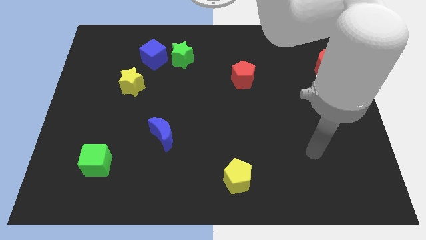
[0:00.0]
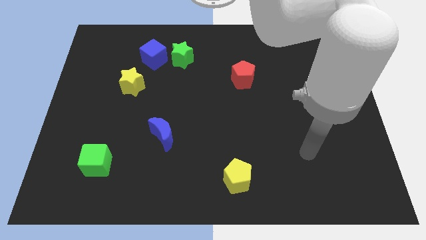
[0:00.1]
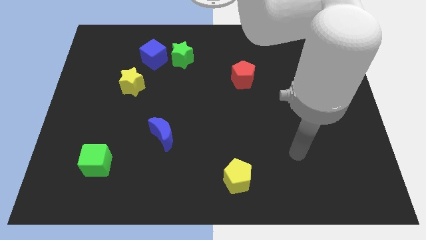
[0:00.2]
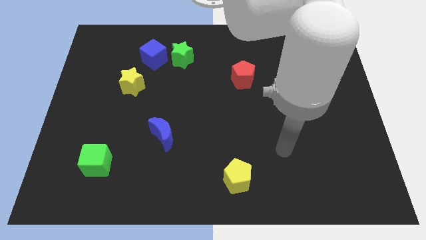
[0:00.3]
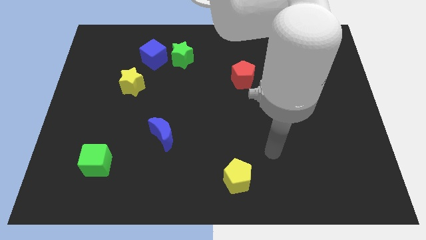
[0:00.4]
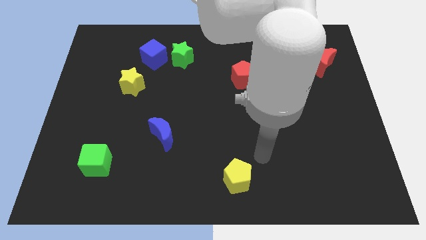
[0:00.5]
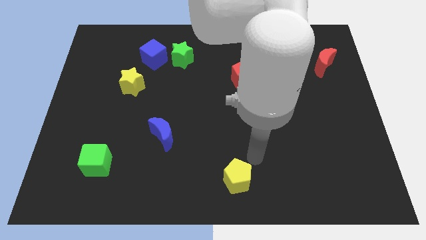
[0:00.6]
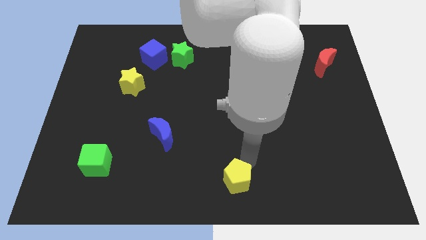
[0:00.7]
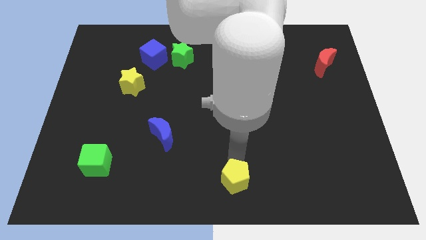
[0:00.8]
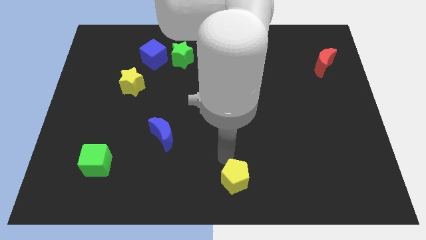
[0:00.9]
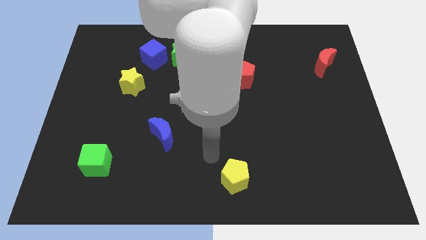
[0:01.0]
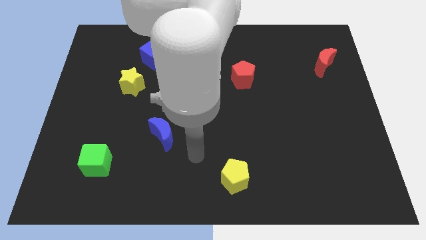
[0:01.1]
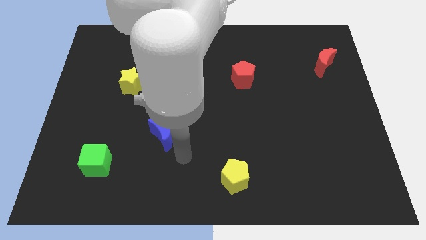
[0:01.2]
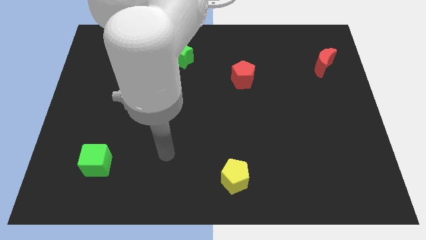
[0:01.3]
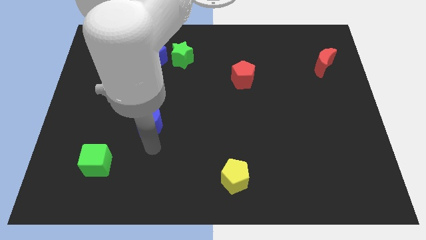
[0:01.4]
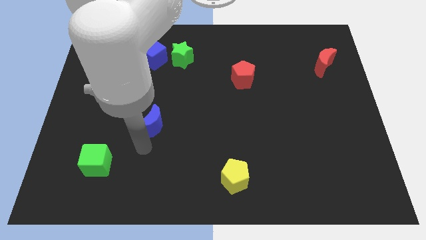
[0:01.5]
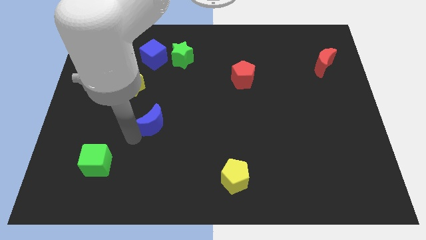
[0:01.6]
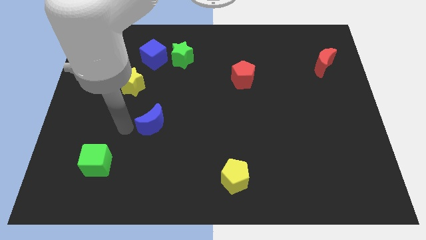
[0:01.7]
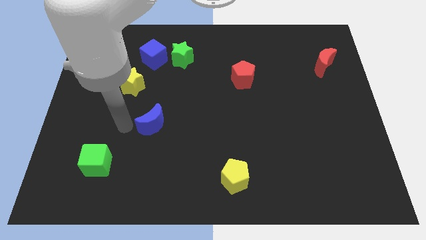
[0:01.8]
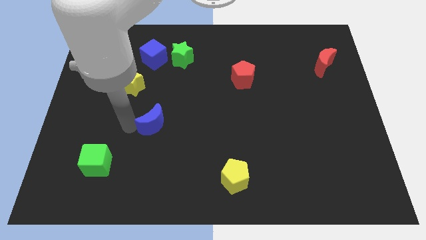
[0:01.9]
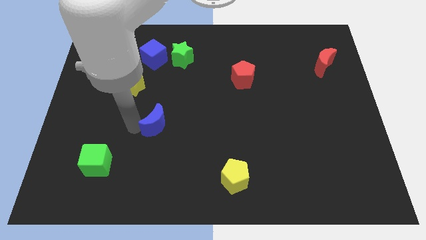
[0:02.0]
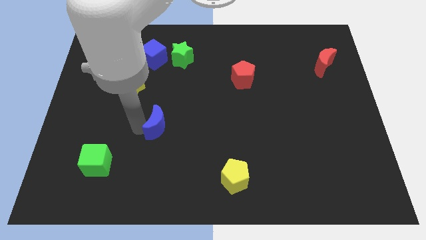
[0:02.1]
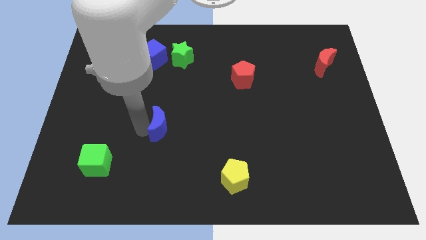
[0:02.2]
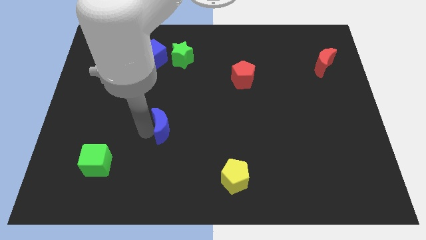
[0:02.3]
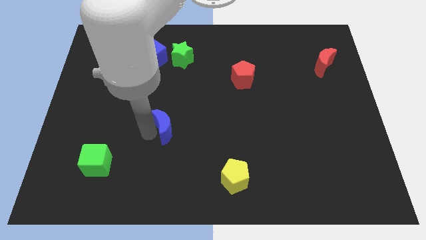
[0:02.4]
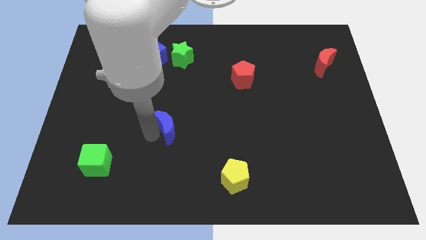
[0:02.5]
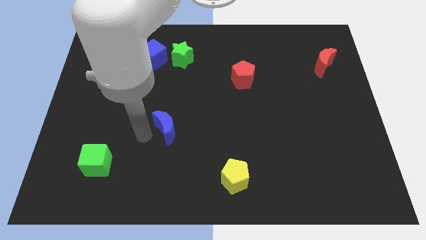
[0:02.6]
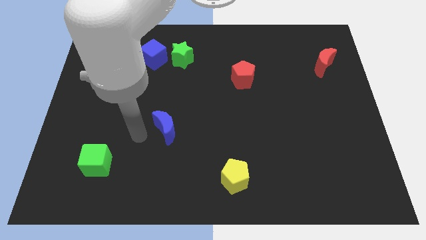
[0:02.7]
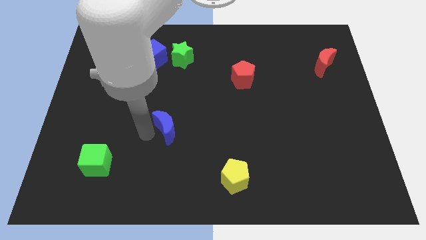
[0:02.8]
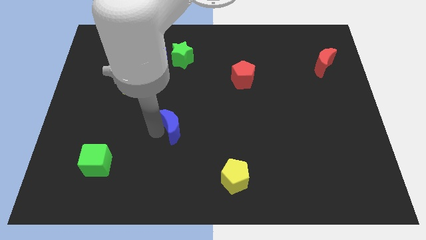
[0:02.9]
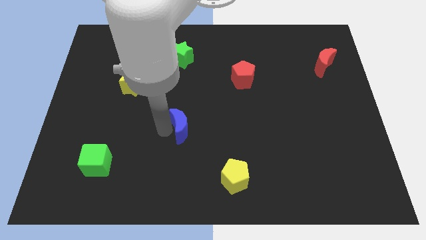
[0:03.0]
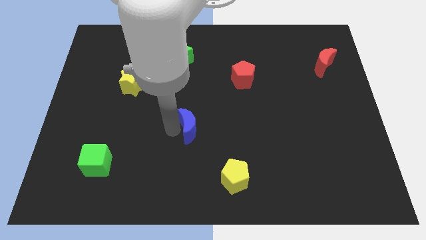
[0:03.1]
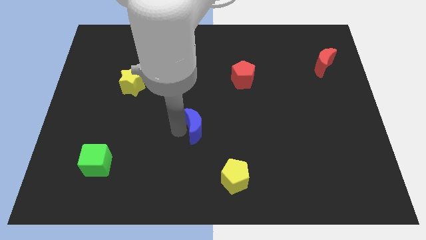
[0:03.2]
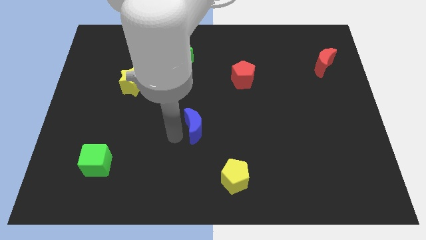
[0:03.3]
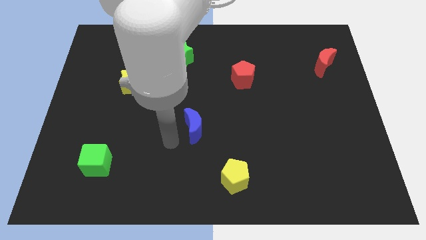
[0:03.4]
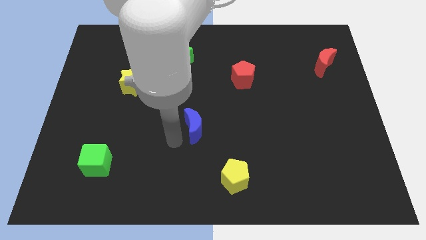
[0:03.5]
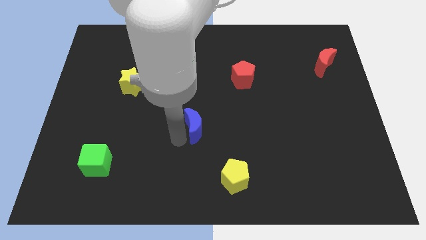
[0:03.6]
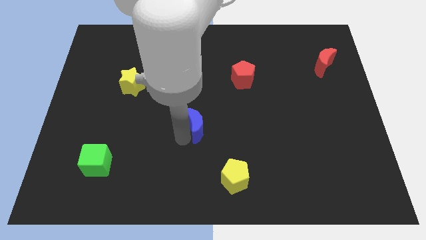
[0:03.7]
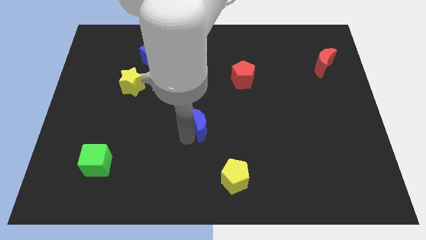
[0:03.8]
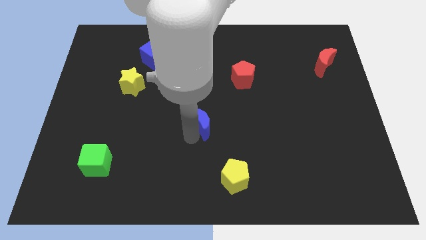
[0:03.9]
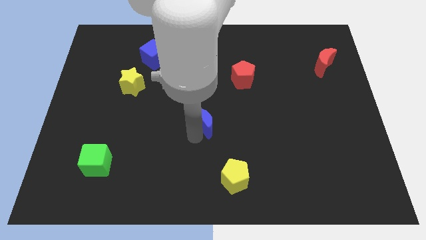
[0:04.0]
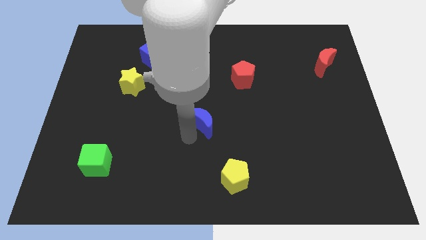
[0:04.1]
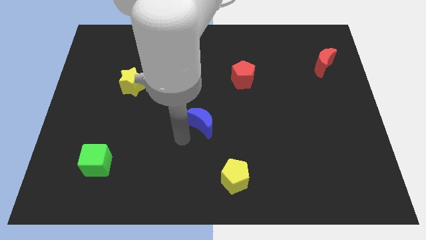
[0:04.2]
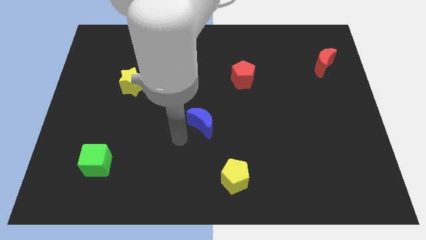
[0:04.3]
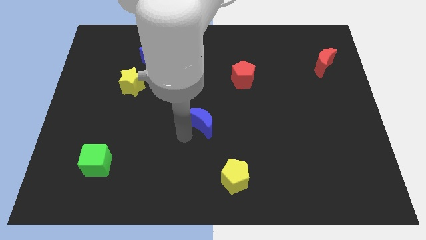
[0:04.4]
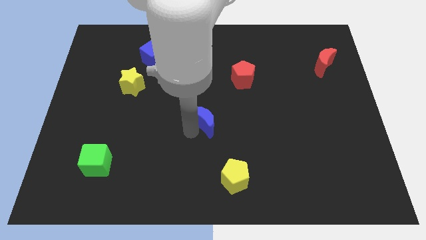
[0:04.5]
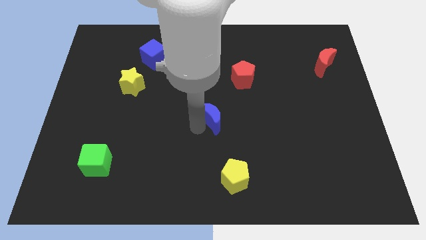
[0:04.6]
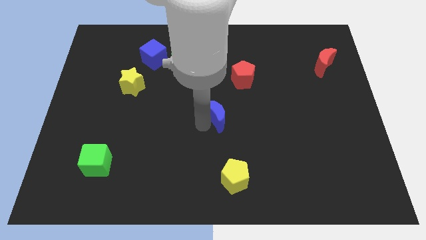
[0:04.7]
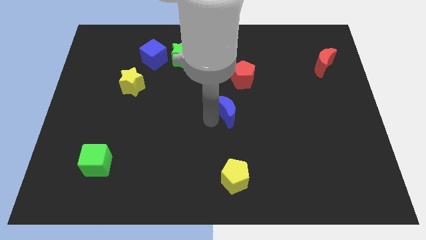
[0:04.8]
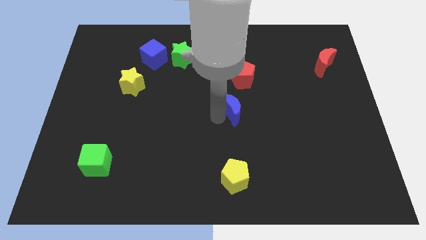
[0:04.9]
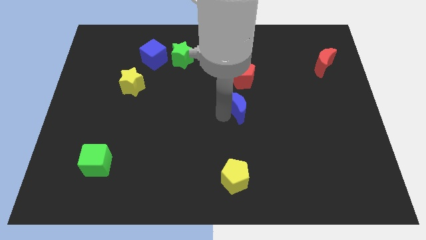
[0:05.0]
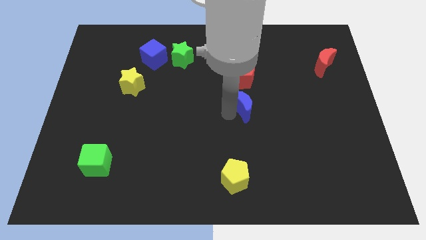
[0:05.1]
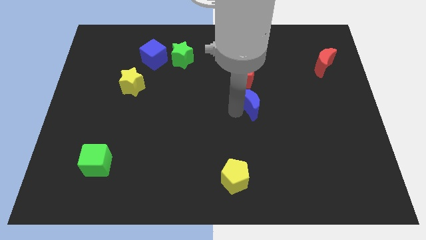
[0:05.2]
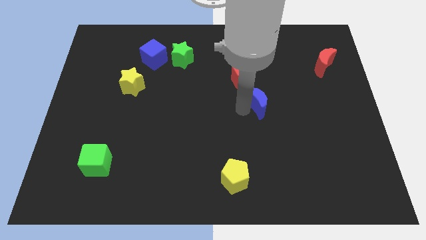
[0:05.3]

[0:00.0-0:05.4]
push the blue moon diagonally down and to the right of the red pentagon

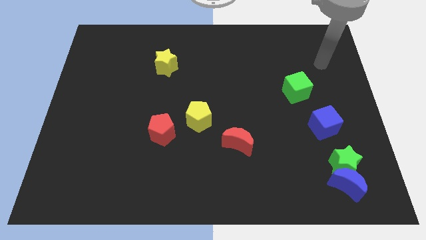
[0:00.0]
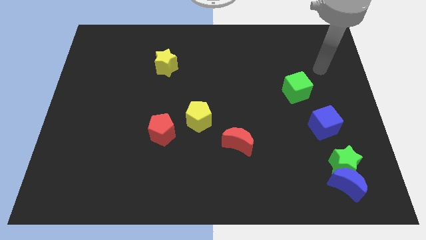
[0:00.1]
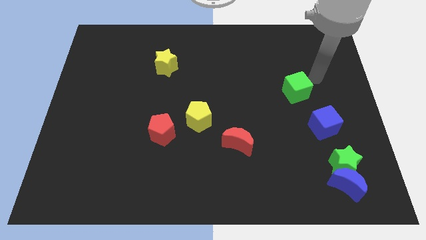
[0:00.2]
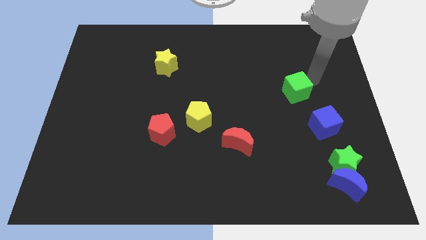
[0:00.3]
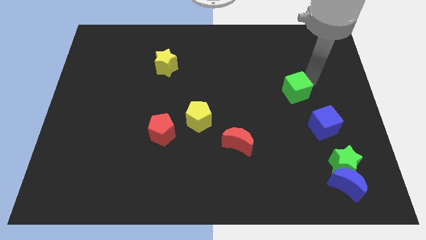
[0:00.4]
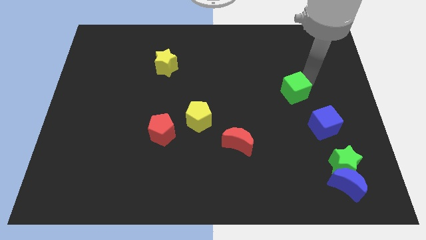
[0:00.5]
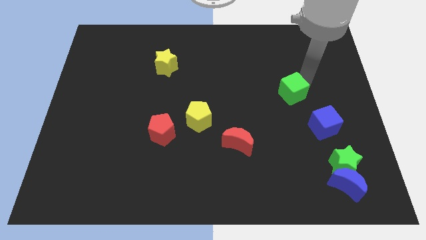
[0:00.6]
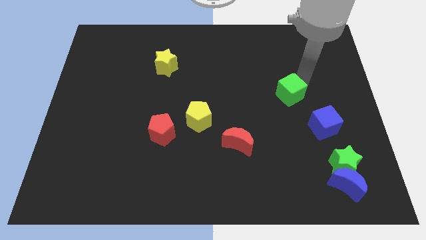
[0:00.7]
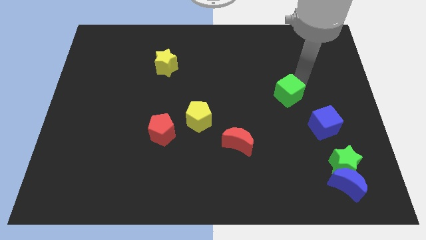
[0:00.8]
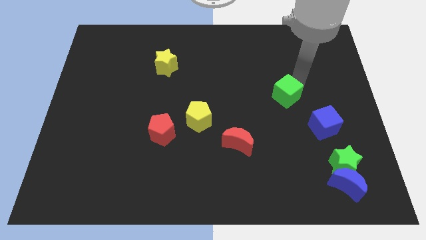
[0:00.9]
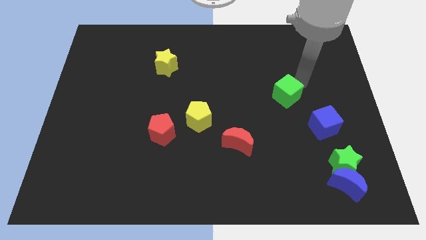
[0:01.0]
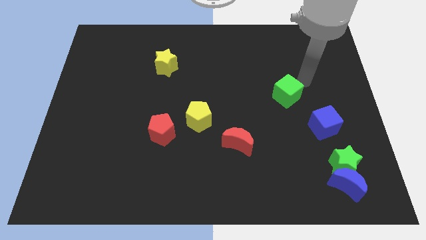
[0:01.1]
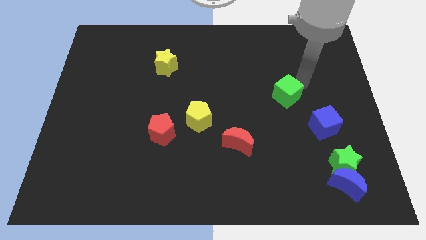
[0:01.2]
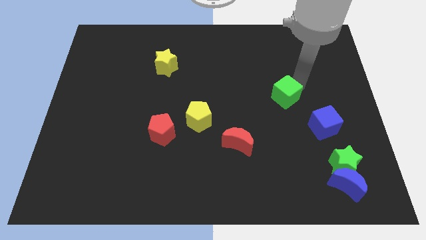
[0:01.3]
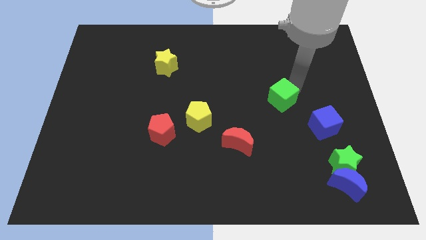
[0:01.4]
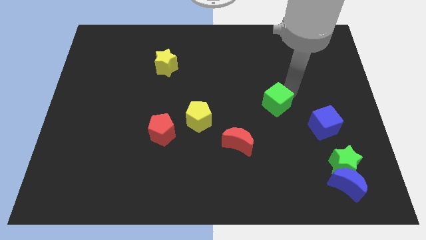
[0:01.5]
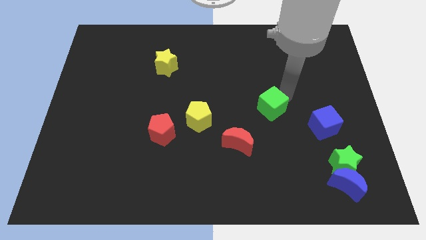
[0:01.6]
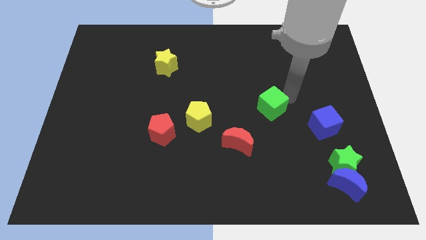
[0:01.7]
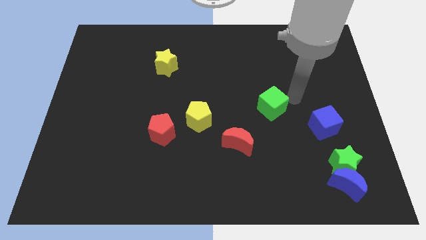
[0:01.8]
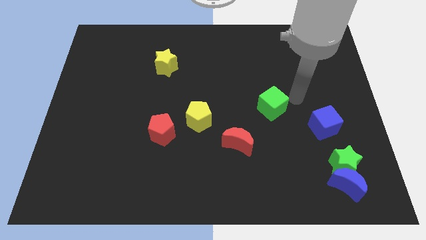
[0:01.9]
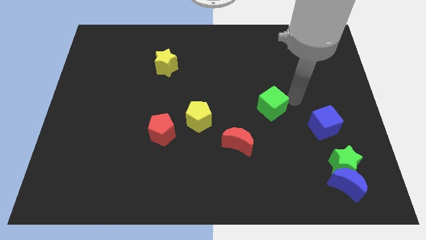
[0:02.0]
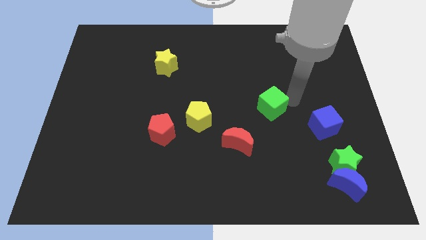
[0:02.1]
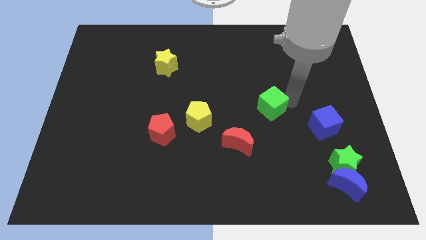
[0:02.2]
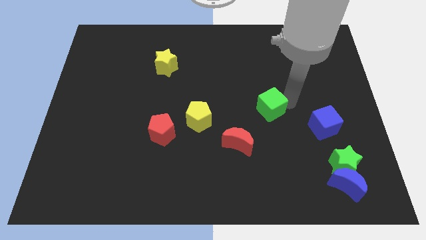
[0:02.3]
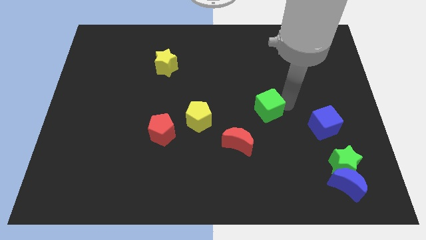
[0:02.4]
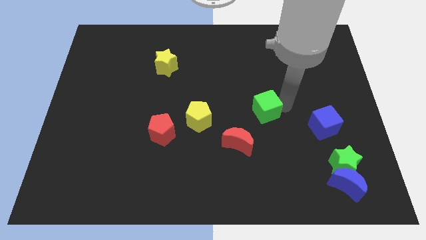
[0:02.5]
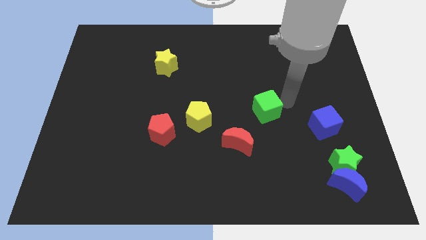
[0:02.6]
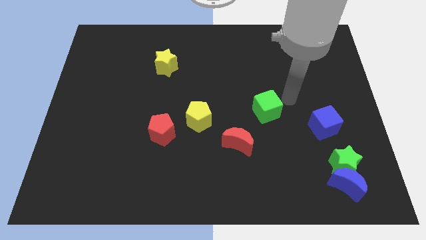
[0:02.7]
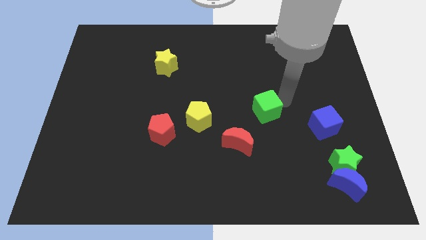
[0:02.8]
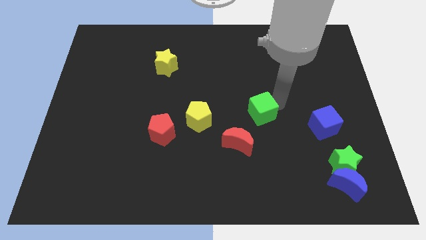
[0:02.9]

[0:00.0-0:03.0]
push the green cube just right of the yellow pentagon
